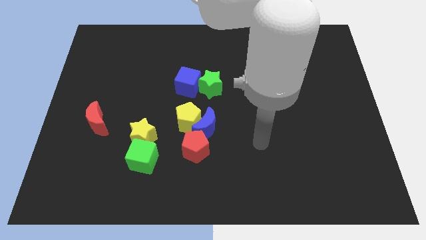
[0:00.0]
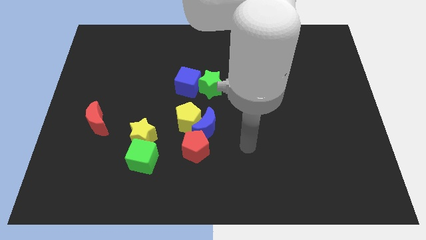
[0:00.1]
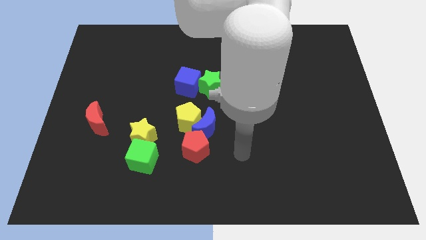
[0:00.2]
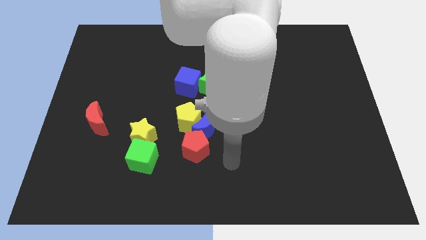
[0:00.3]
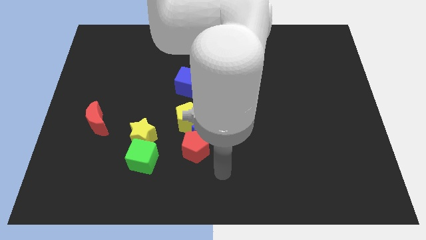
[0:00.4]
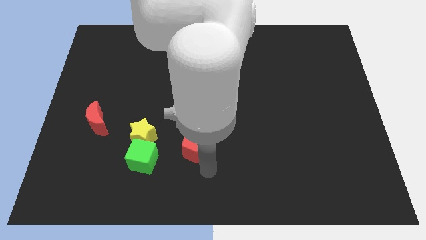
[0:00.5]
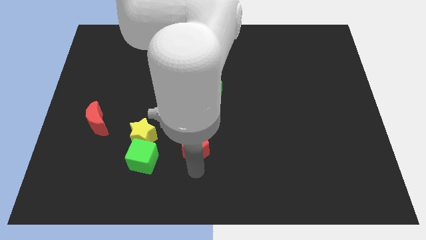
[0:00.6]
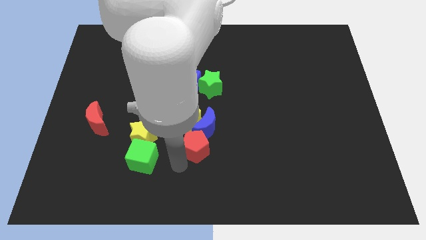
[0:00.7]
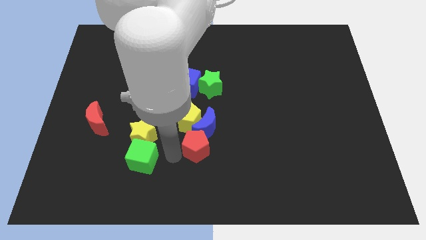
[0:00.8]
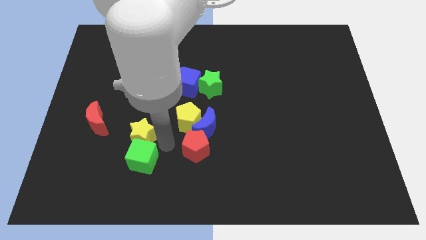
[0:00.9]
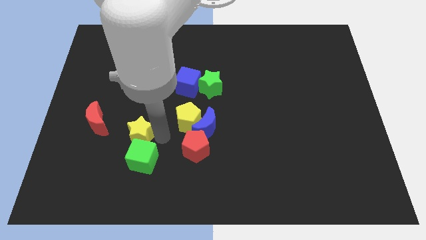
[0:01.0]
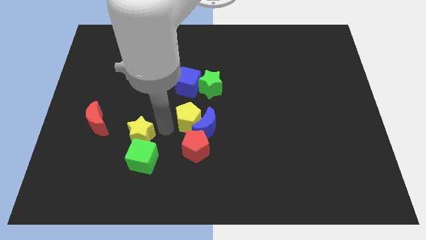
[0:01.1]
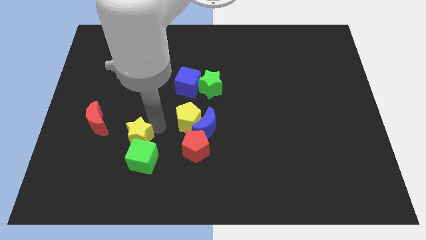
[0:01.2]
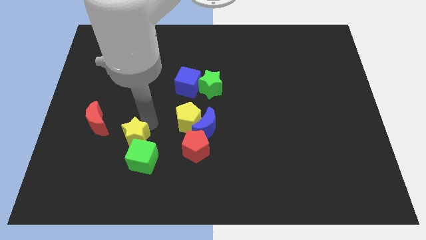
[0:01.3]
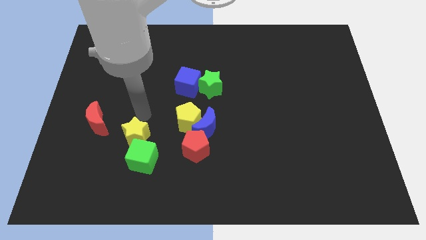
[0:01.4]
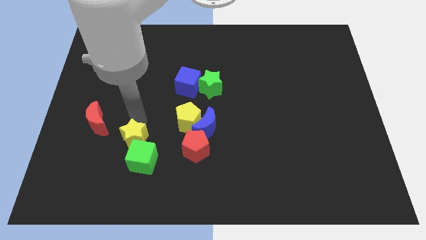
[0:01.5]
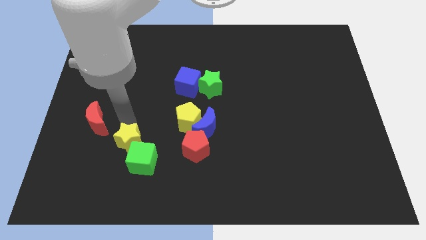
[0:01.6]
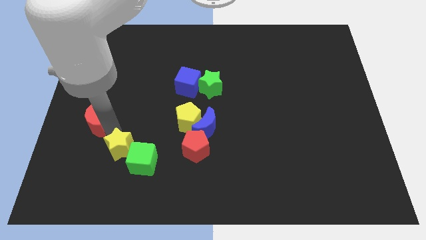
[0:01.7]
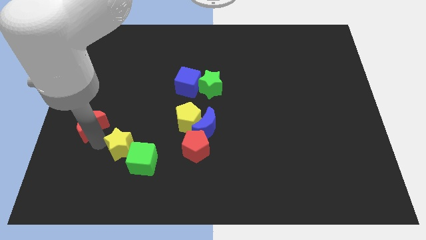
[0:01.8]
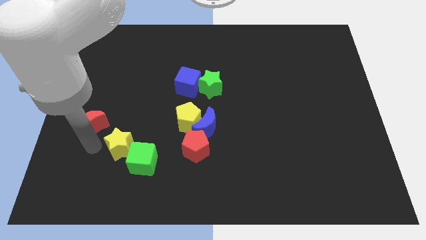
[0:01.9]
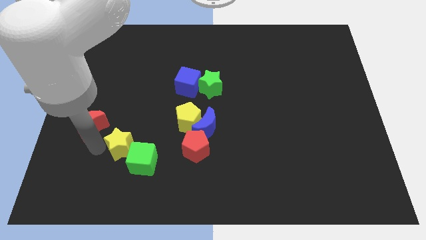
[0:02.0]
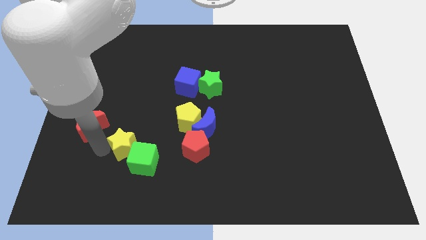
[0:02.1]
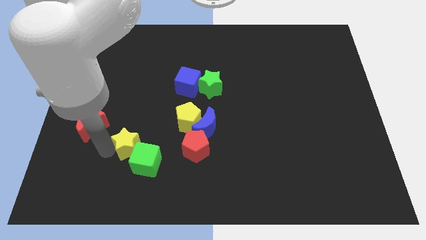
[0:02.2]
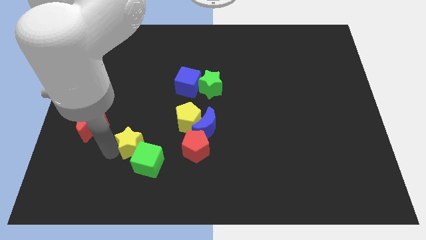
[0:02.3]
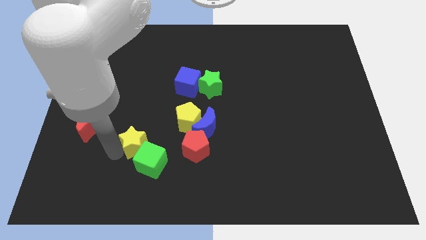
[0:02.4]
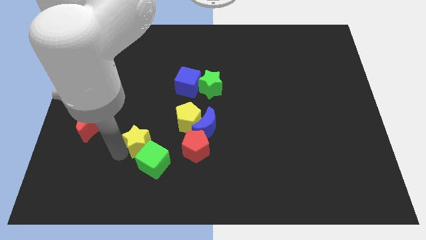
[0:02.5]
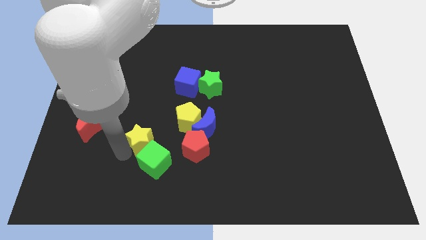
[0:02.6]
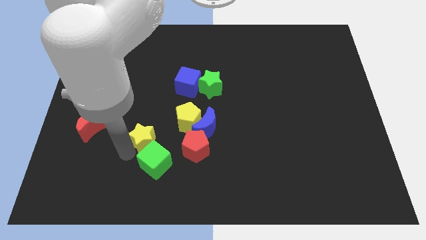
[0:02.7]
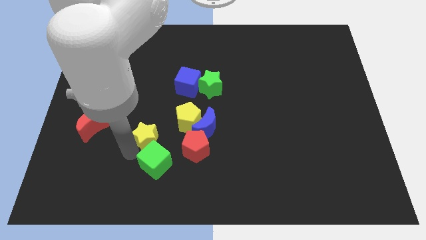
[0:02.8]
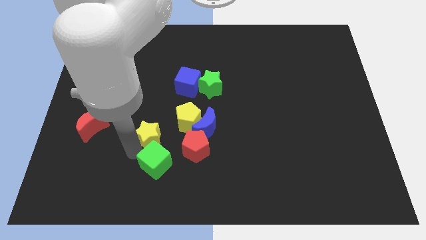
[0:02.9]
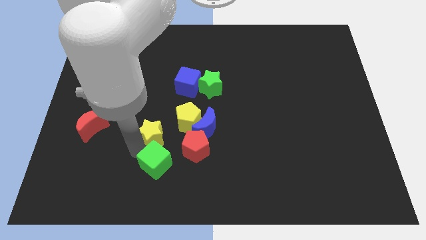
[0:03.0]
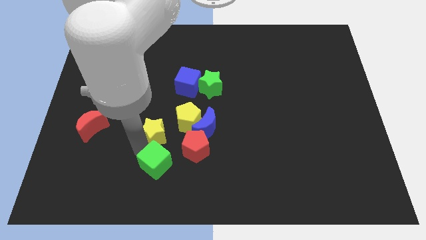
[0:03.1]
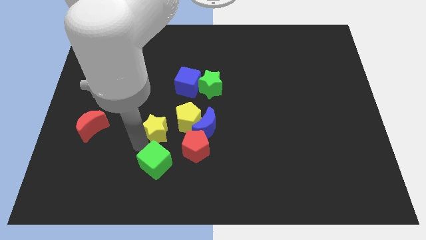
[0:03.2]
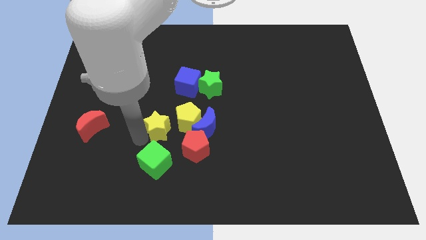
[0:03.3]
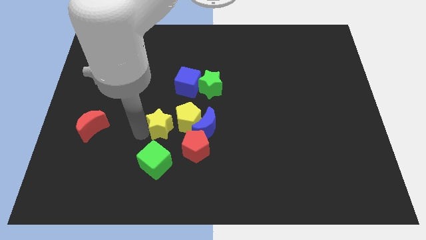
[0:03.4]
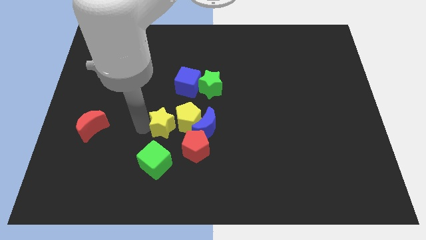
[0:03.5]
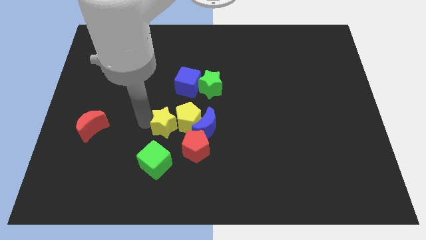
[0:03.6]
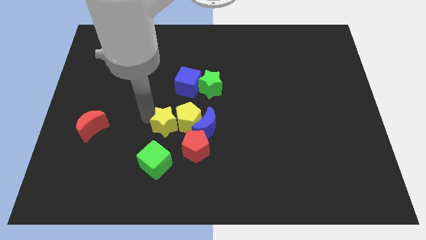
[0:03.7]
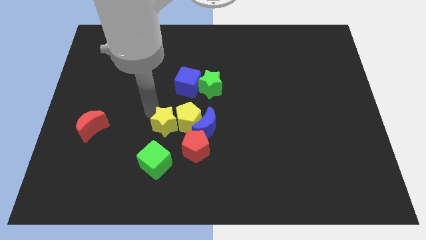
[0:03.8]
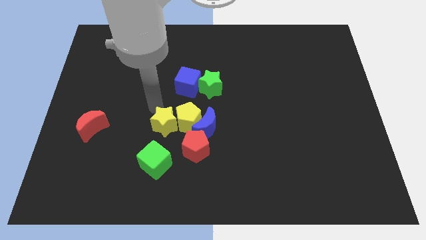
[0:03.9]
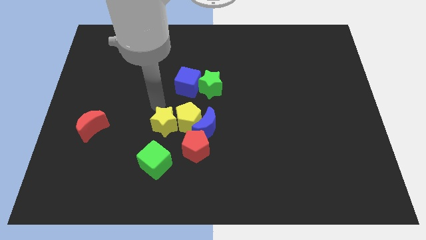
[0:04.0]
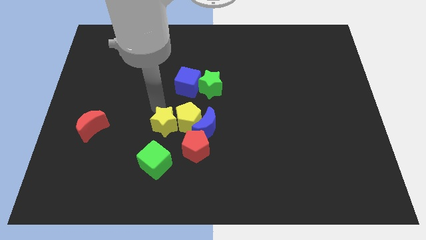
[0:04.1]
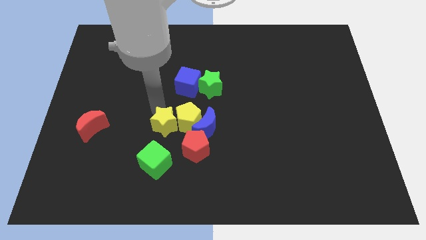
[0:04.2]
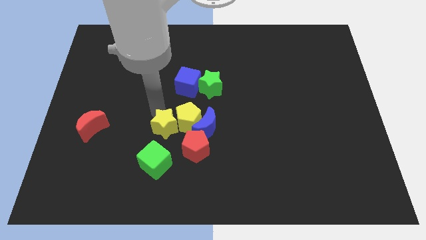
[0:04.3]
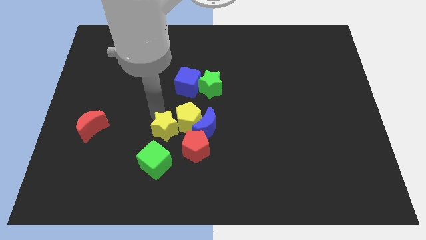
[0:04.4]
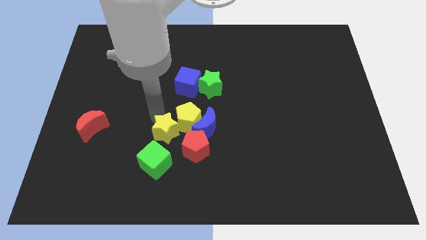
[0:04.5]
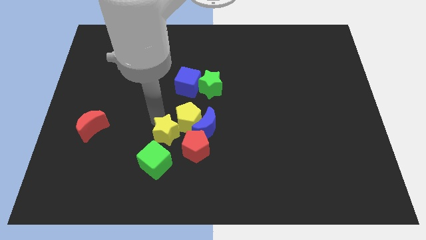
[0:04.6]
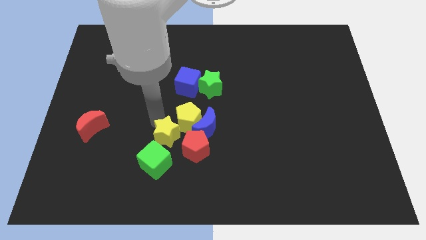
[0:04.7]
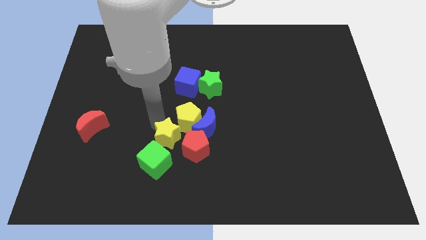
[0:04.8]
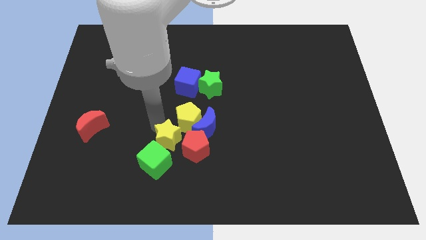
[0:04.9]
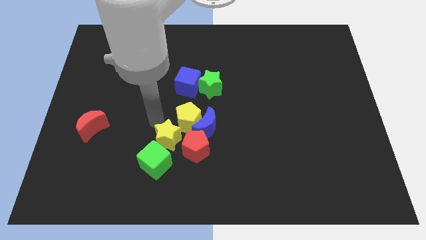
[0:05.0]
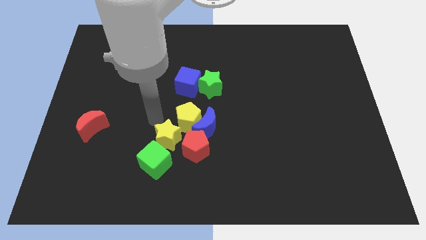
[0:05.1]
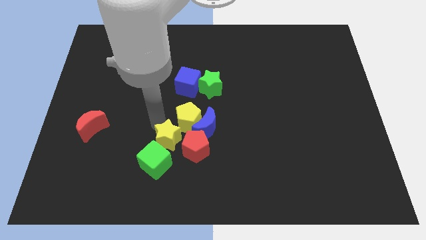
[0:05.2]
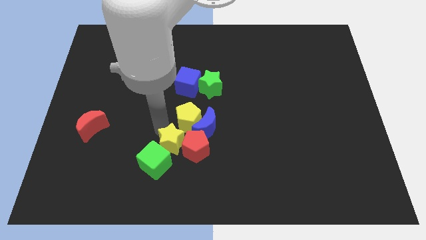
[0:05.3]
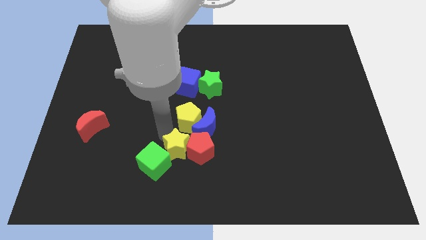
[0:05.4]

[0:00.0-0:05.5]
slide the yellow star to the right side of the green cube
